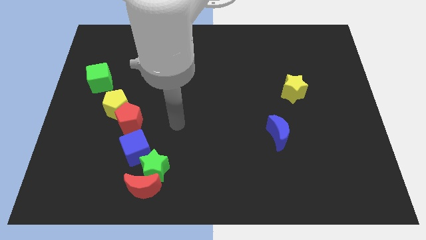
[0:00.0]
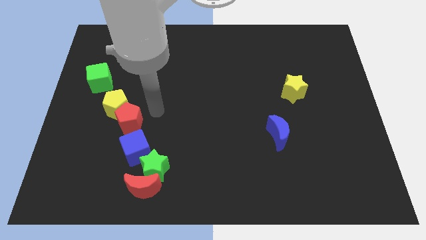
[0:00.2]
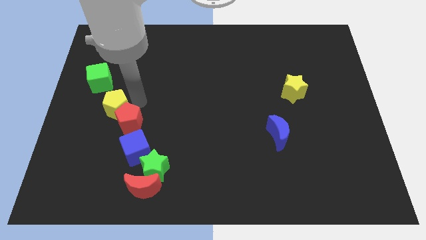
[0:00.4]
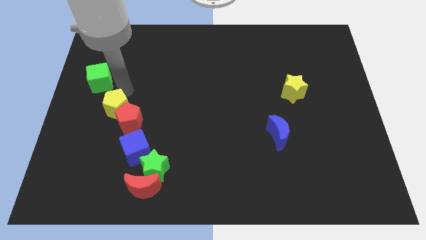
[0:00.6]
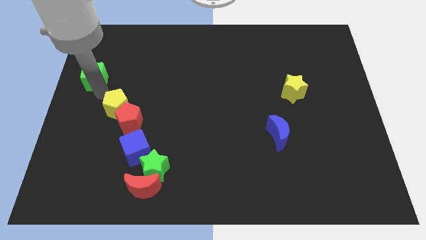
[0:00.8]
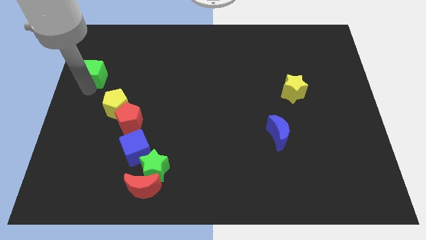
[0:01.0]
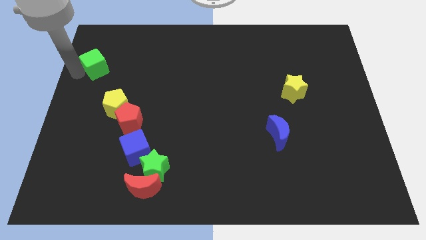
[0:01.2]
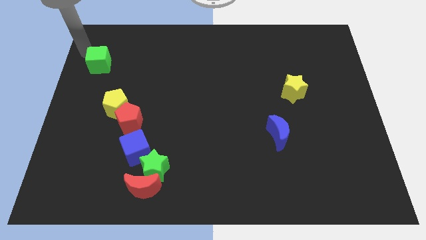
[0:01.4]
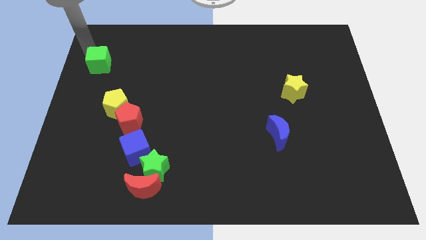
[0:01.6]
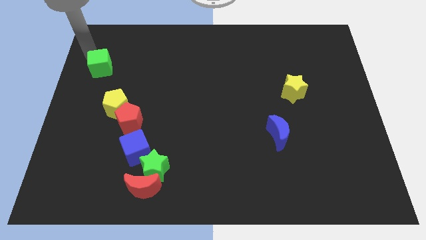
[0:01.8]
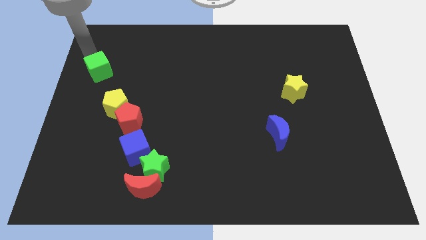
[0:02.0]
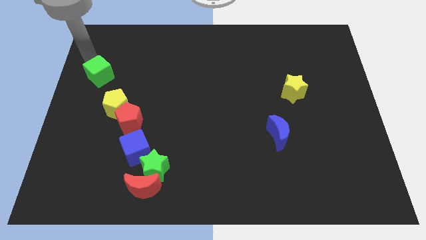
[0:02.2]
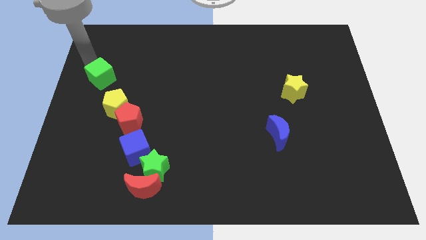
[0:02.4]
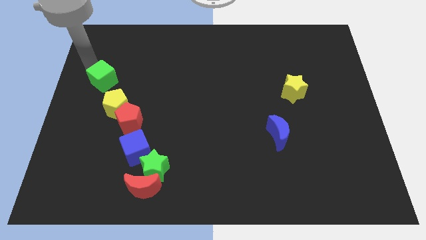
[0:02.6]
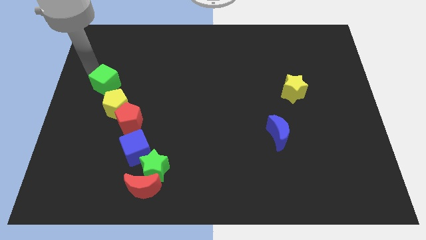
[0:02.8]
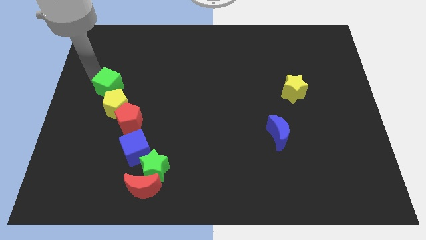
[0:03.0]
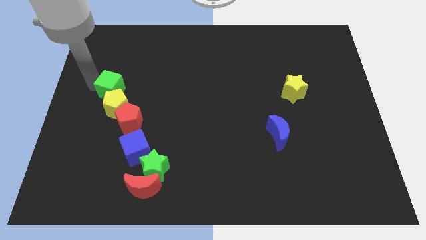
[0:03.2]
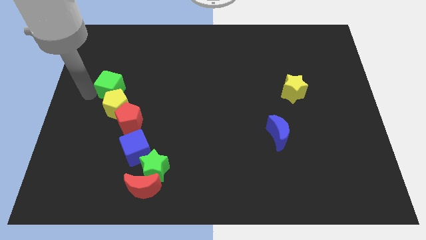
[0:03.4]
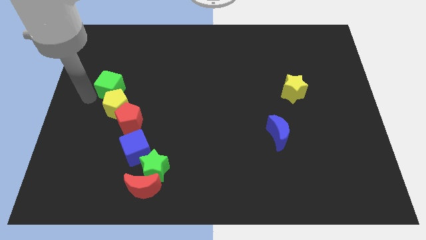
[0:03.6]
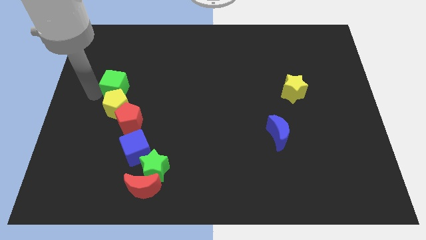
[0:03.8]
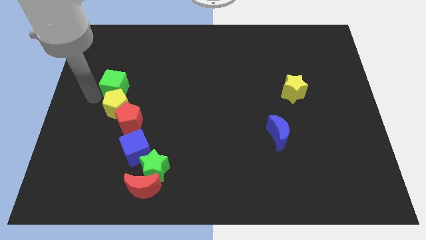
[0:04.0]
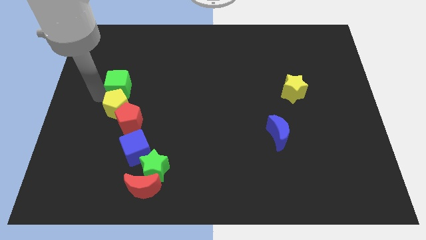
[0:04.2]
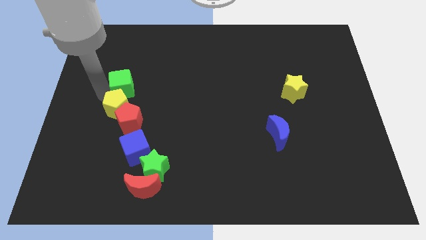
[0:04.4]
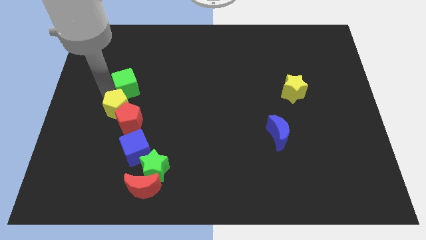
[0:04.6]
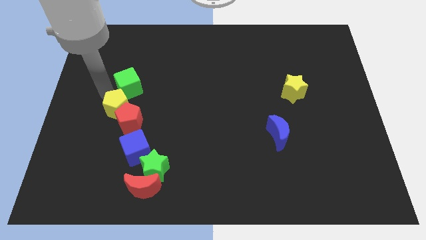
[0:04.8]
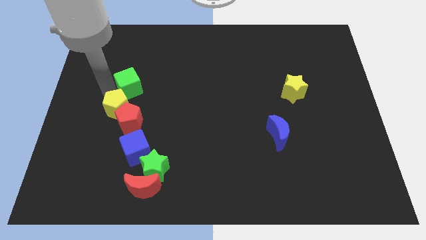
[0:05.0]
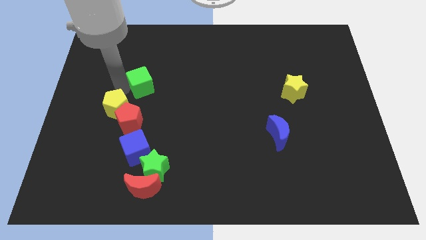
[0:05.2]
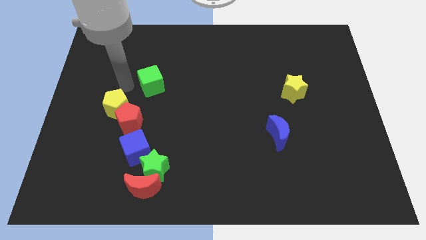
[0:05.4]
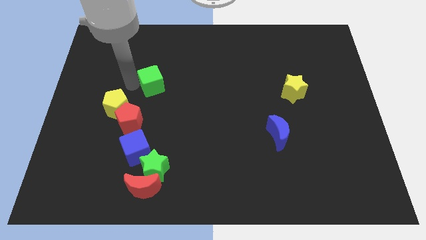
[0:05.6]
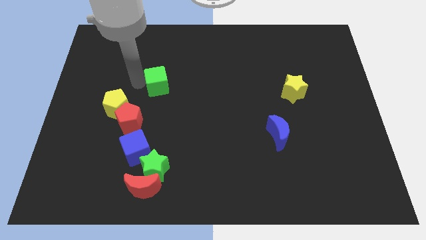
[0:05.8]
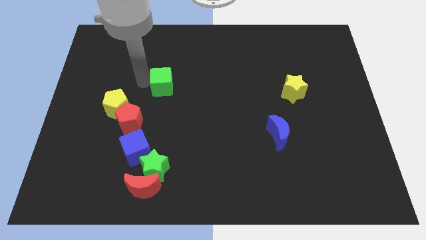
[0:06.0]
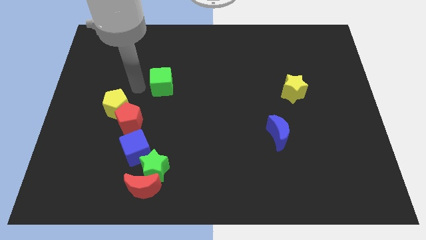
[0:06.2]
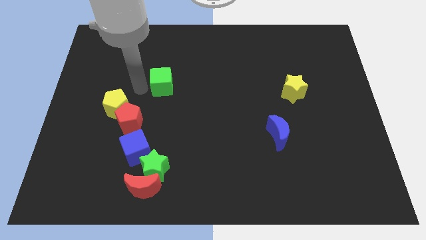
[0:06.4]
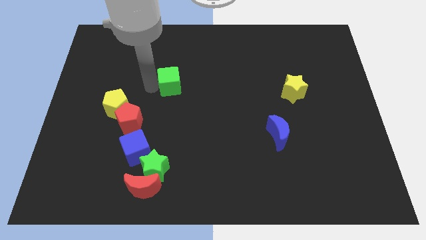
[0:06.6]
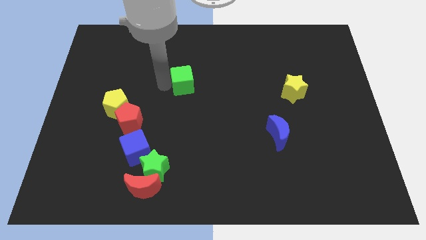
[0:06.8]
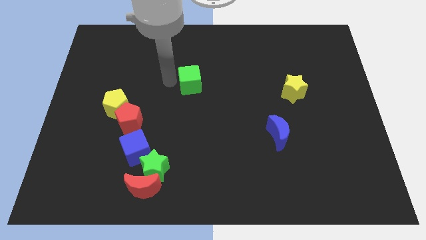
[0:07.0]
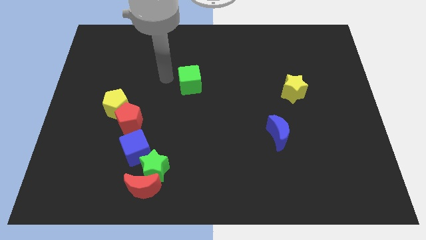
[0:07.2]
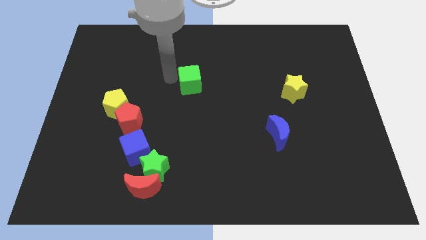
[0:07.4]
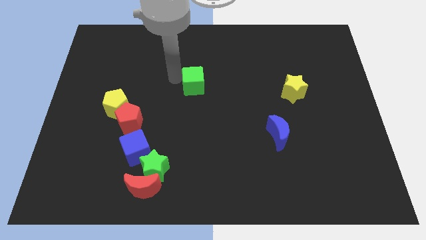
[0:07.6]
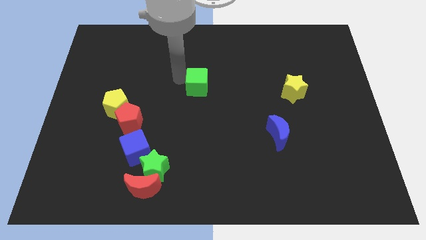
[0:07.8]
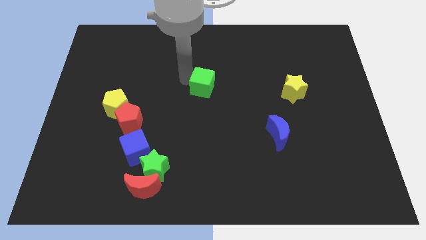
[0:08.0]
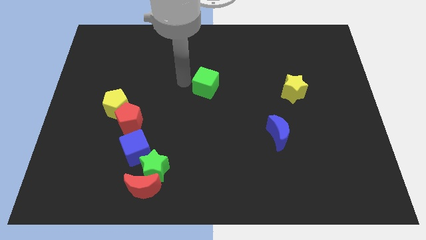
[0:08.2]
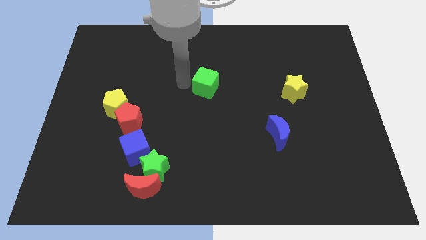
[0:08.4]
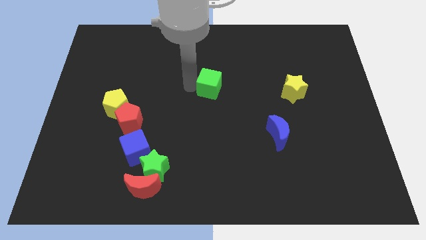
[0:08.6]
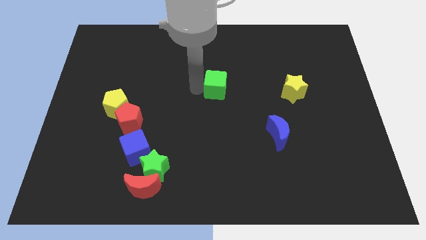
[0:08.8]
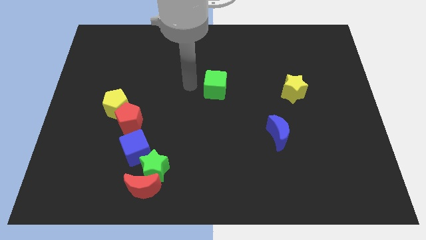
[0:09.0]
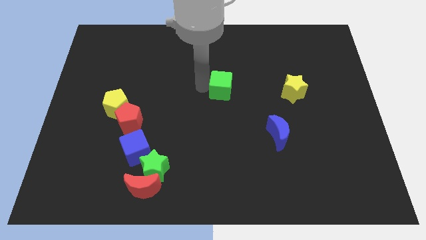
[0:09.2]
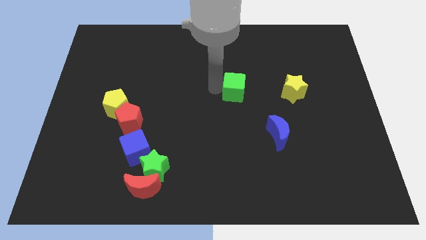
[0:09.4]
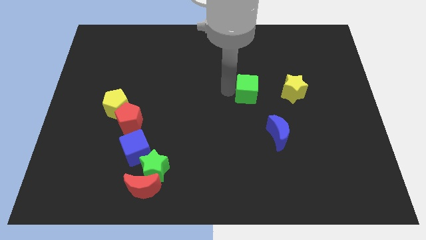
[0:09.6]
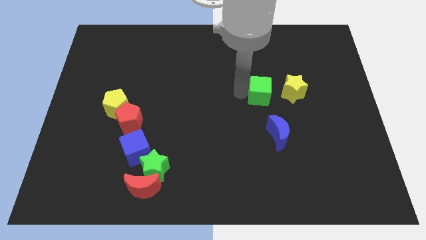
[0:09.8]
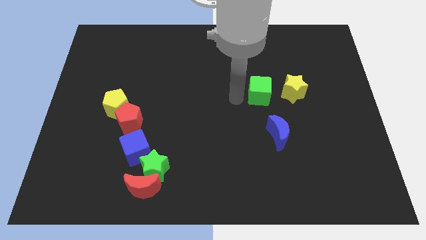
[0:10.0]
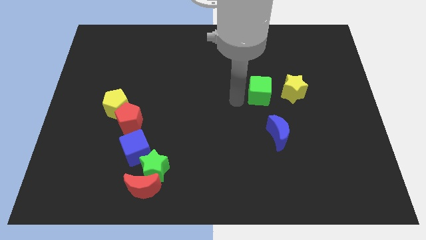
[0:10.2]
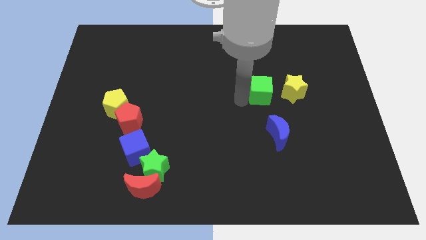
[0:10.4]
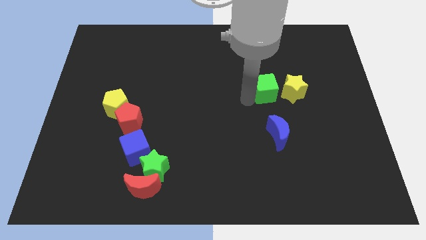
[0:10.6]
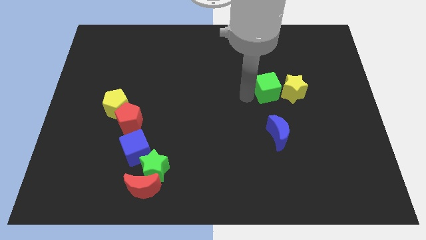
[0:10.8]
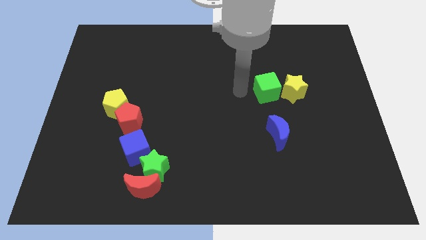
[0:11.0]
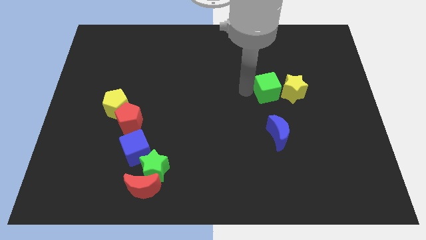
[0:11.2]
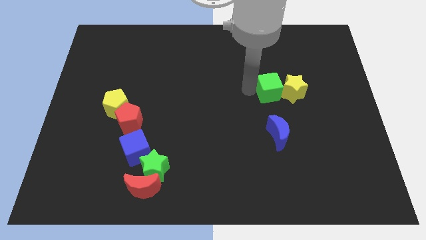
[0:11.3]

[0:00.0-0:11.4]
push the green cube to the yellow star

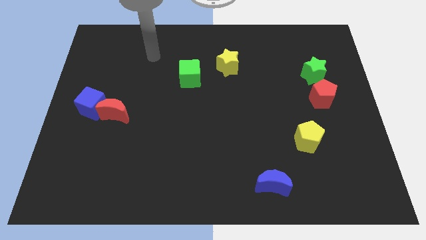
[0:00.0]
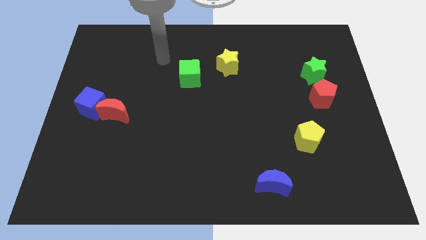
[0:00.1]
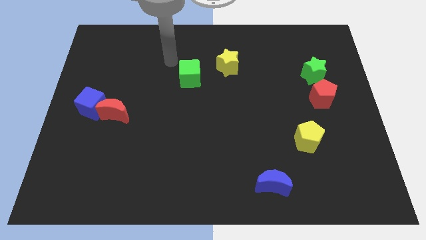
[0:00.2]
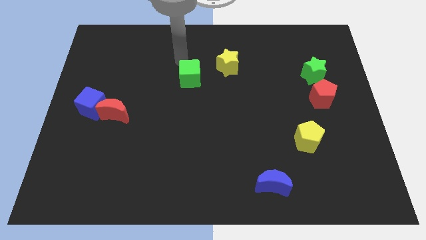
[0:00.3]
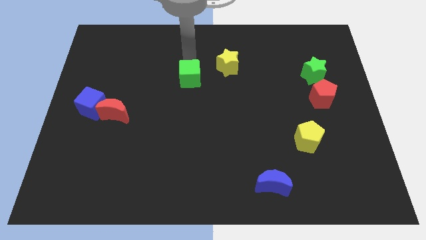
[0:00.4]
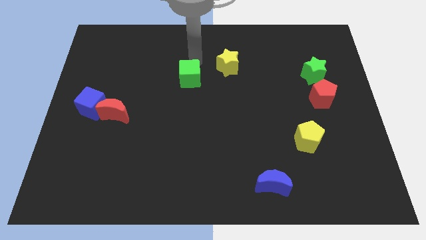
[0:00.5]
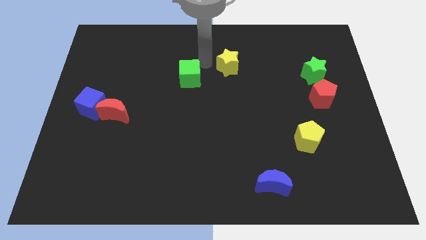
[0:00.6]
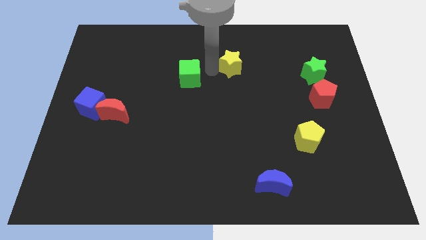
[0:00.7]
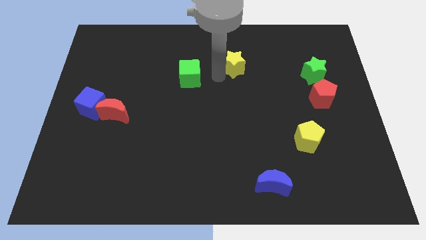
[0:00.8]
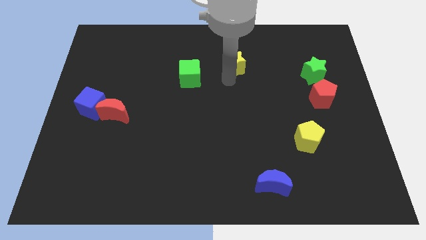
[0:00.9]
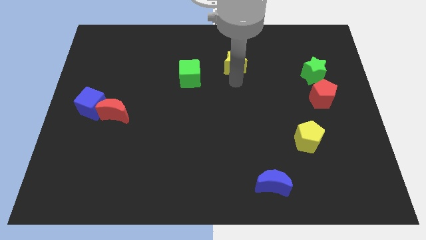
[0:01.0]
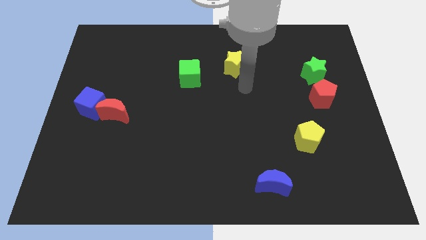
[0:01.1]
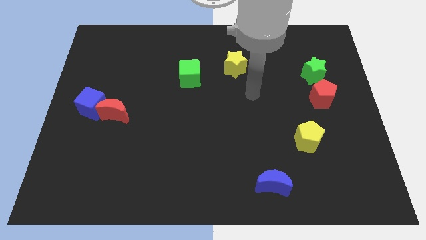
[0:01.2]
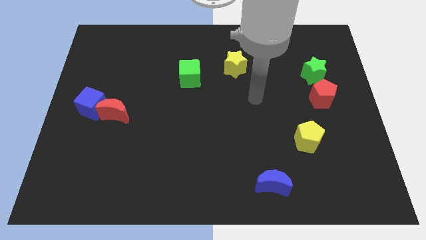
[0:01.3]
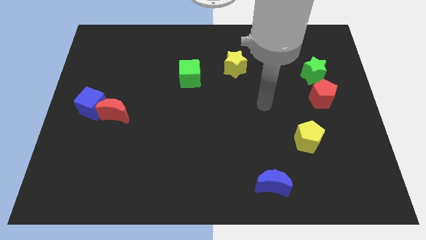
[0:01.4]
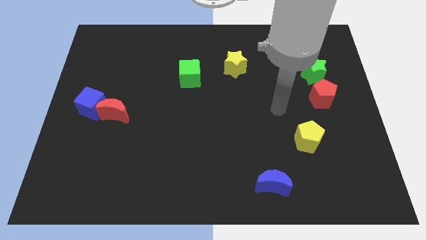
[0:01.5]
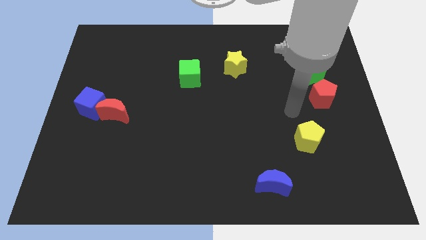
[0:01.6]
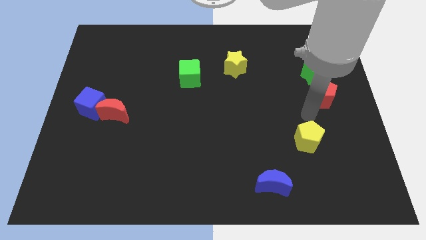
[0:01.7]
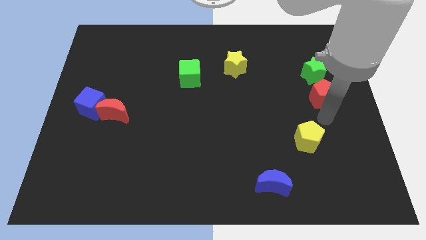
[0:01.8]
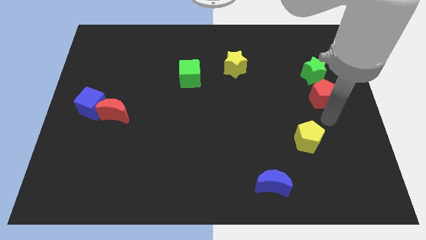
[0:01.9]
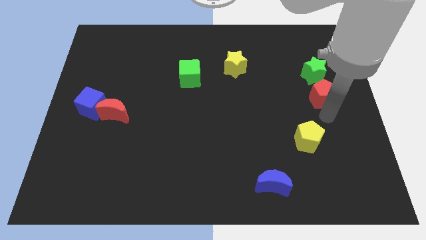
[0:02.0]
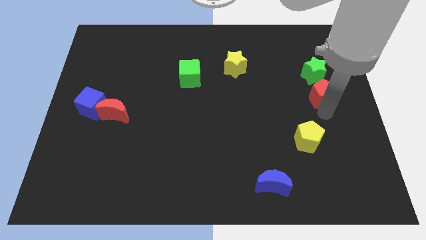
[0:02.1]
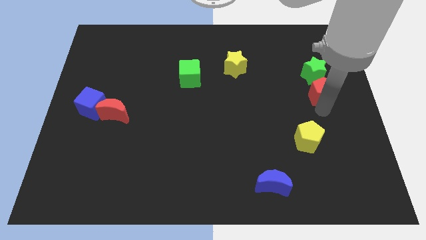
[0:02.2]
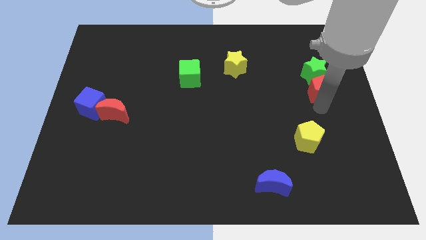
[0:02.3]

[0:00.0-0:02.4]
slide the red pentagon next to the green star
